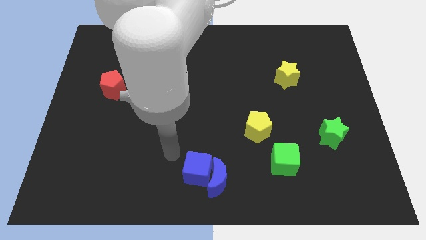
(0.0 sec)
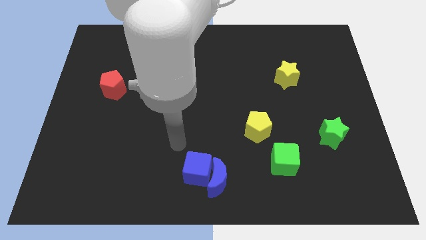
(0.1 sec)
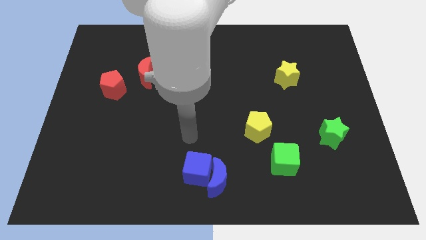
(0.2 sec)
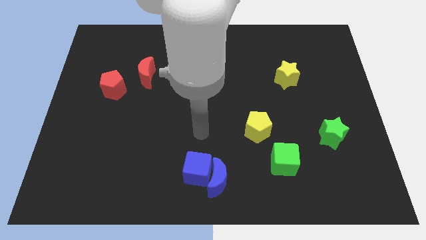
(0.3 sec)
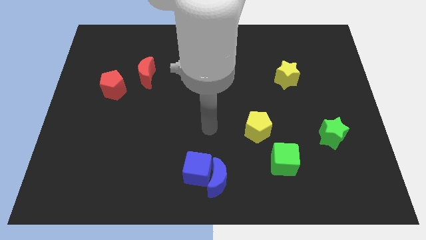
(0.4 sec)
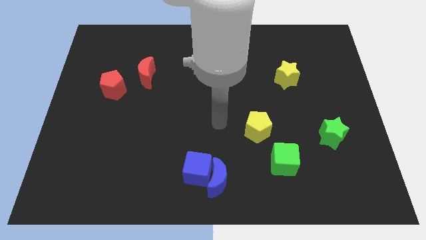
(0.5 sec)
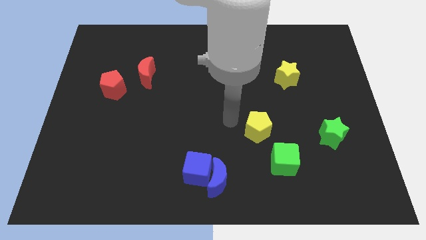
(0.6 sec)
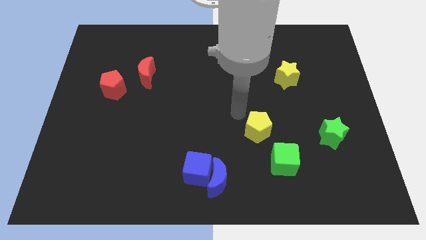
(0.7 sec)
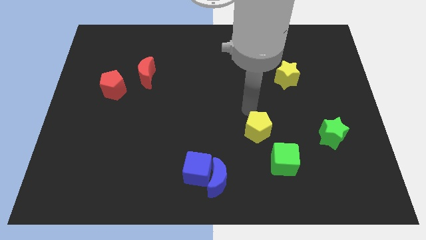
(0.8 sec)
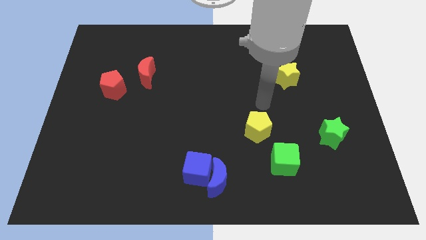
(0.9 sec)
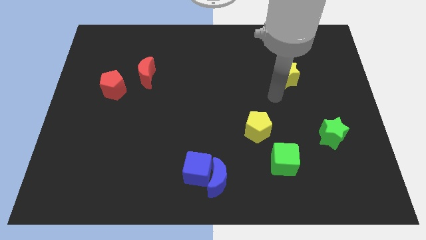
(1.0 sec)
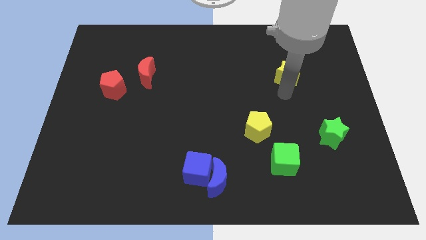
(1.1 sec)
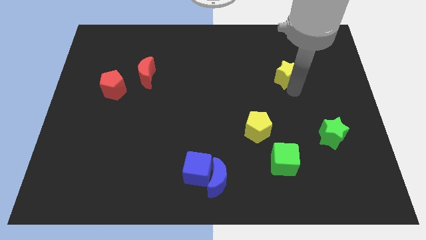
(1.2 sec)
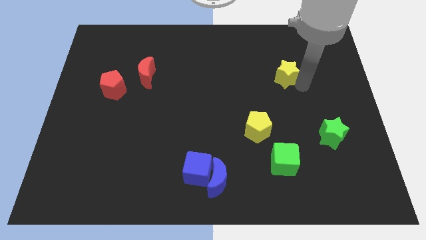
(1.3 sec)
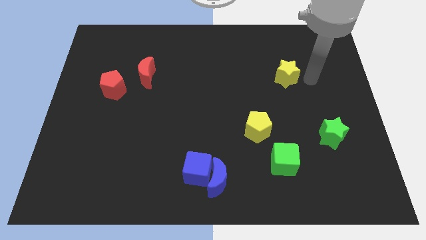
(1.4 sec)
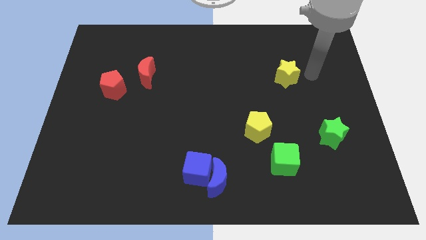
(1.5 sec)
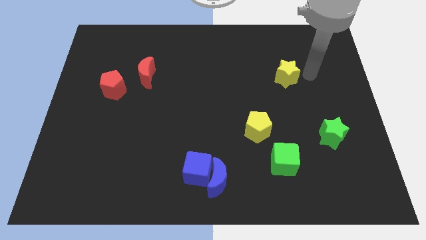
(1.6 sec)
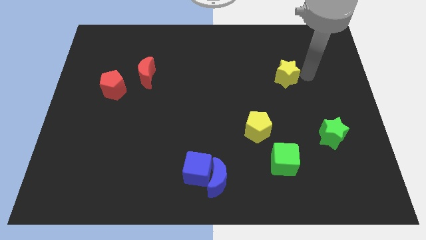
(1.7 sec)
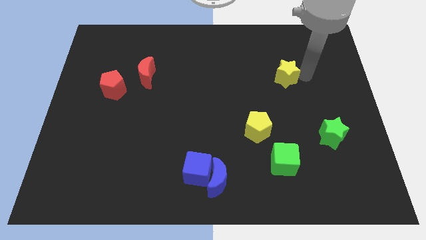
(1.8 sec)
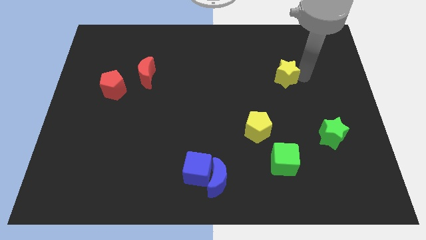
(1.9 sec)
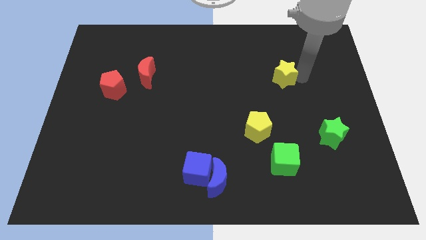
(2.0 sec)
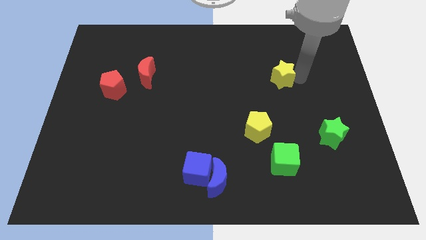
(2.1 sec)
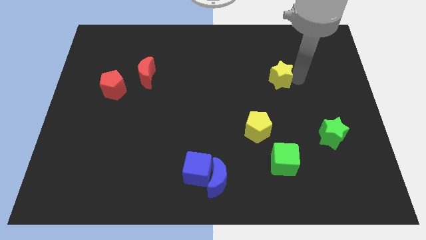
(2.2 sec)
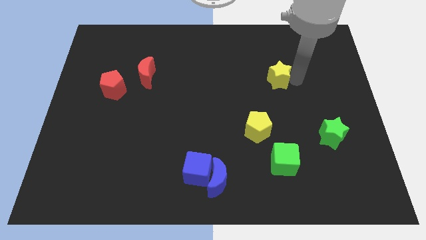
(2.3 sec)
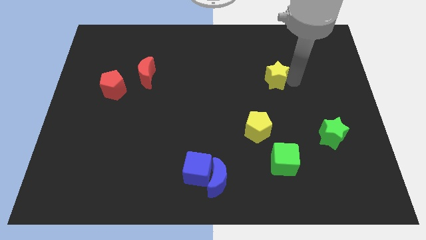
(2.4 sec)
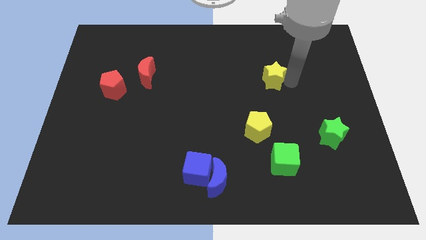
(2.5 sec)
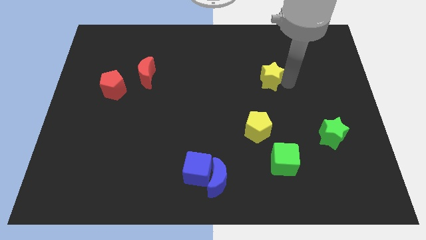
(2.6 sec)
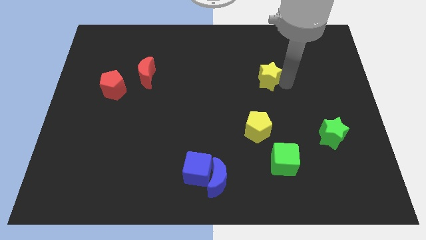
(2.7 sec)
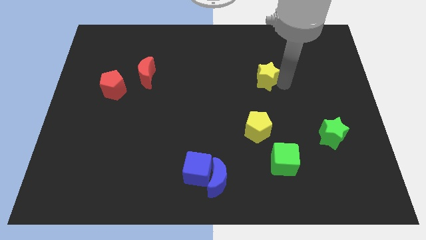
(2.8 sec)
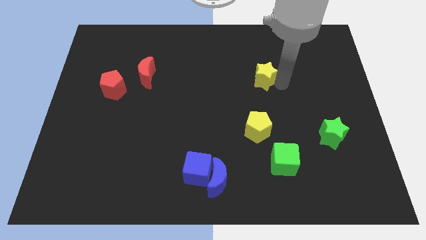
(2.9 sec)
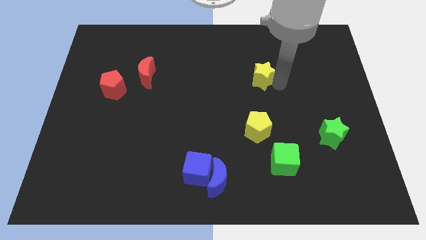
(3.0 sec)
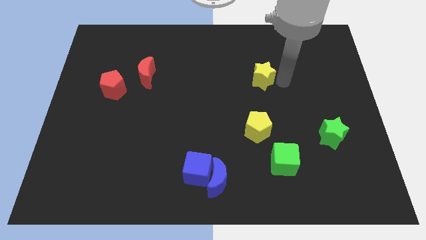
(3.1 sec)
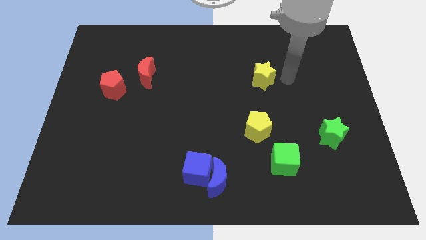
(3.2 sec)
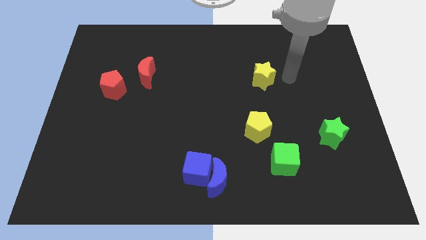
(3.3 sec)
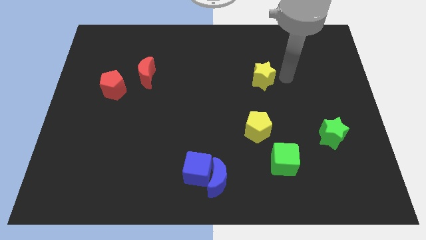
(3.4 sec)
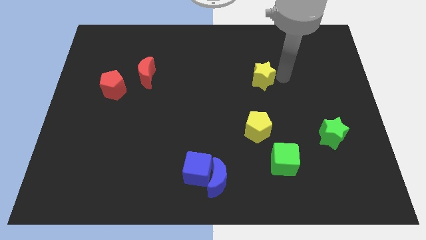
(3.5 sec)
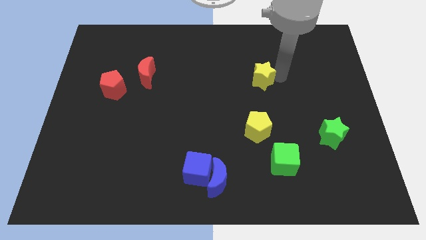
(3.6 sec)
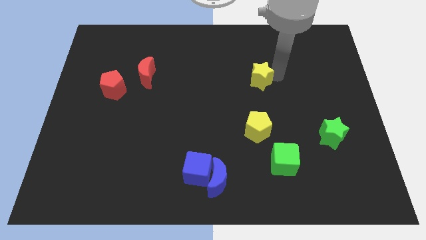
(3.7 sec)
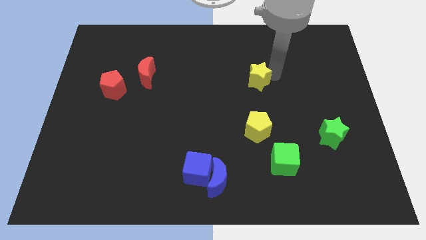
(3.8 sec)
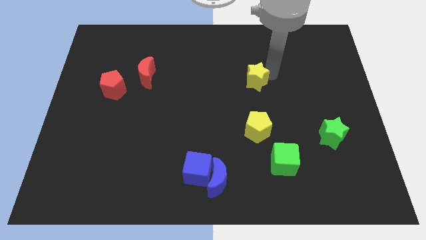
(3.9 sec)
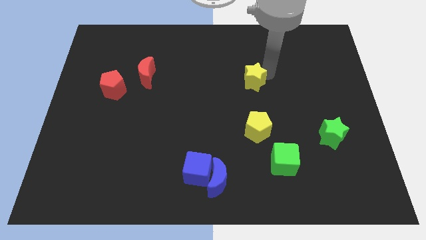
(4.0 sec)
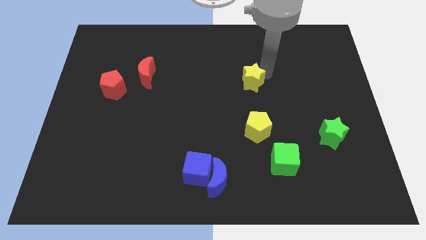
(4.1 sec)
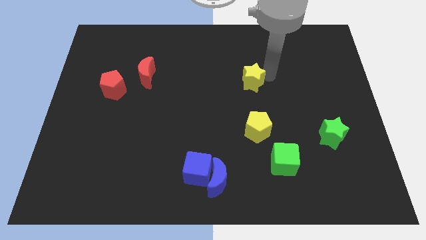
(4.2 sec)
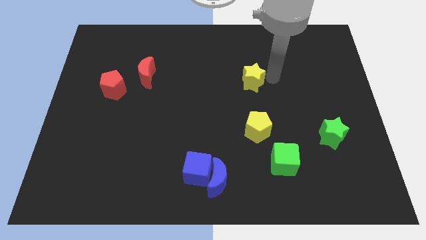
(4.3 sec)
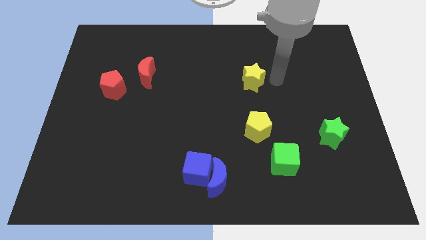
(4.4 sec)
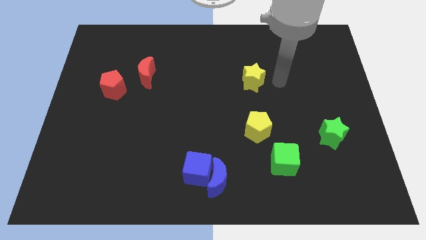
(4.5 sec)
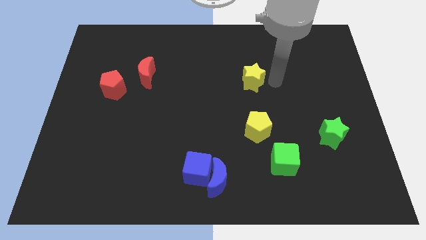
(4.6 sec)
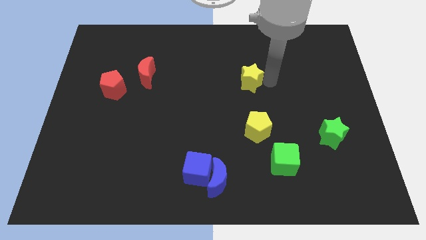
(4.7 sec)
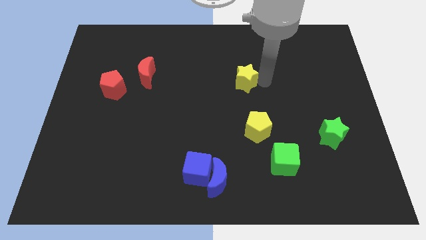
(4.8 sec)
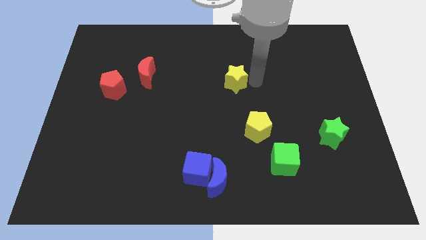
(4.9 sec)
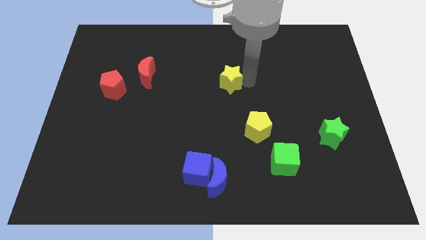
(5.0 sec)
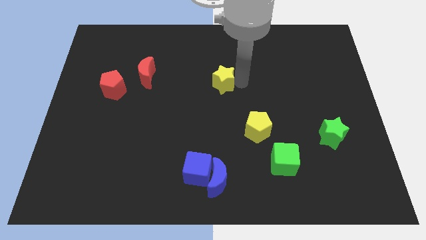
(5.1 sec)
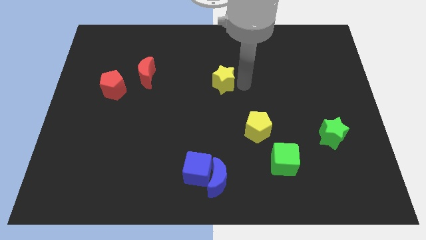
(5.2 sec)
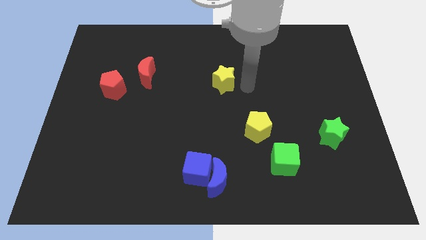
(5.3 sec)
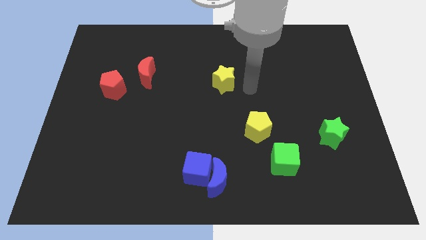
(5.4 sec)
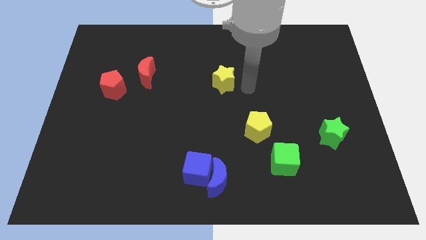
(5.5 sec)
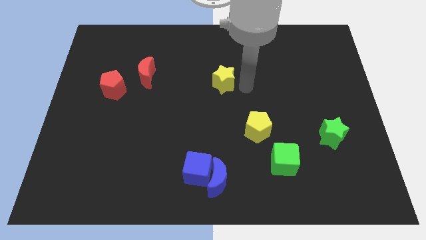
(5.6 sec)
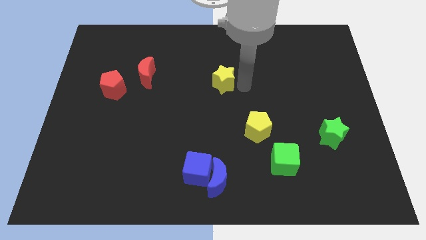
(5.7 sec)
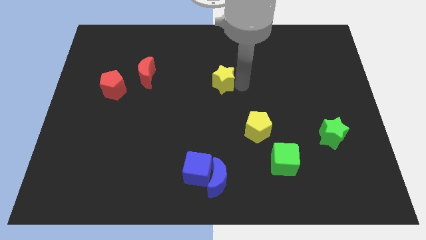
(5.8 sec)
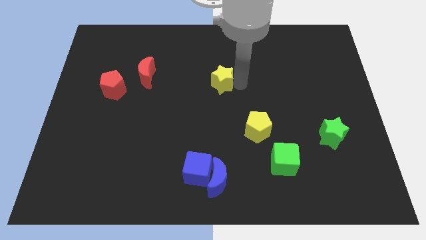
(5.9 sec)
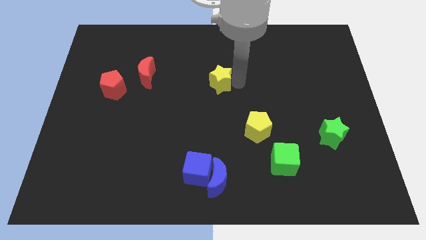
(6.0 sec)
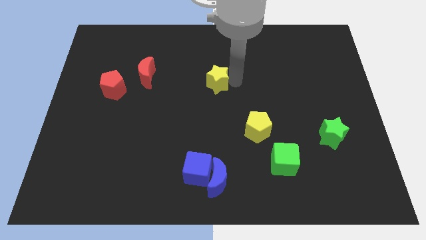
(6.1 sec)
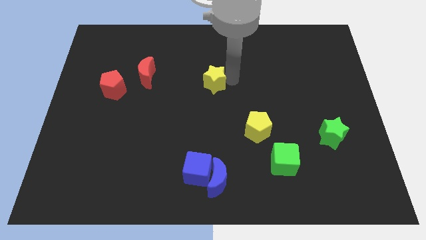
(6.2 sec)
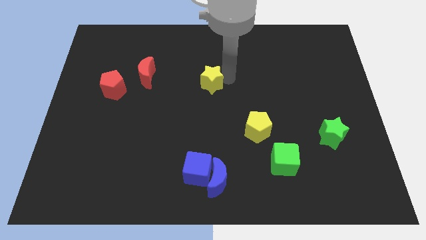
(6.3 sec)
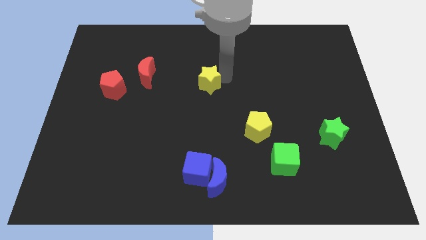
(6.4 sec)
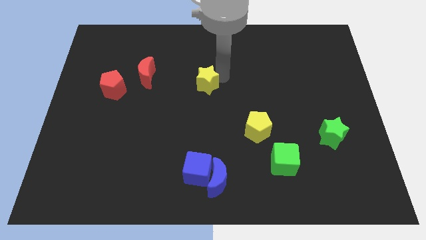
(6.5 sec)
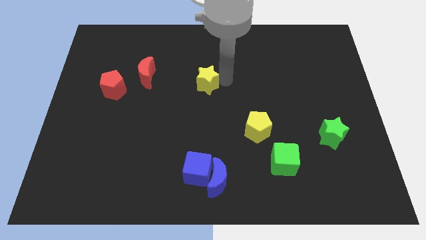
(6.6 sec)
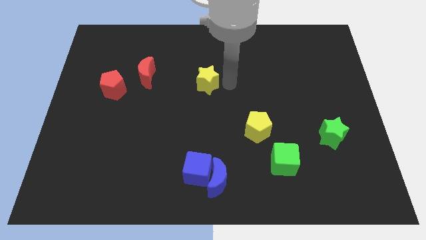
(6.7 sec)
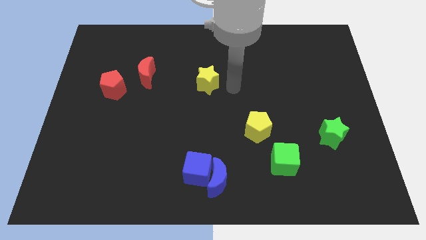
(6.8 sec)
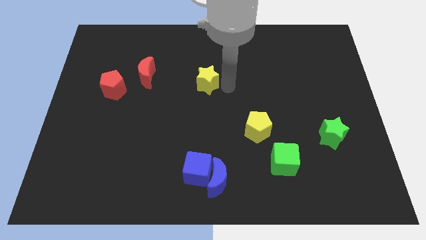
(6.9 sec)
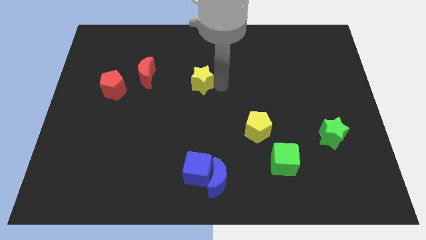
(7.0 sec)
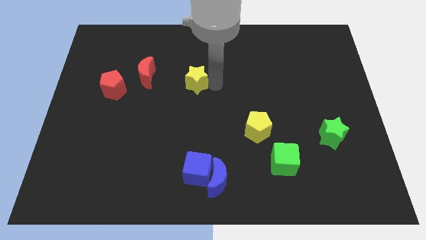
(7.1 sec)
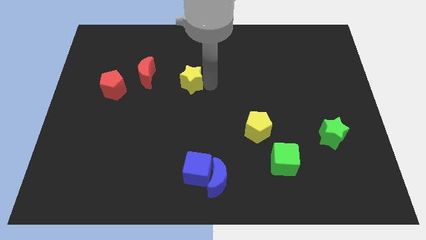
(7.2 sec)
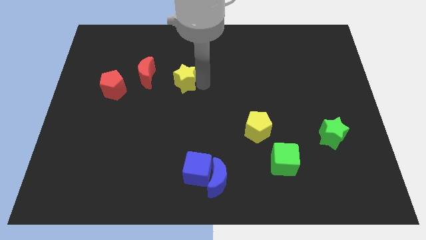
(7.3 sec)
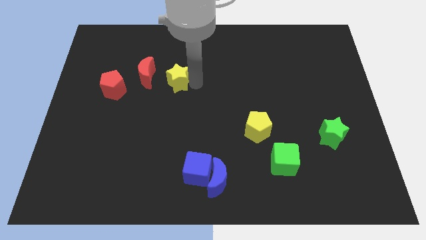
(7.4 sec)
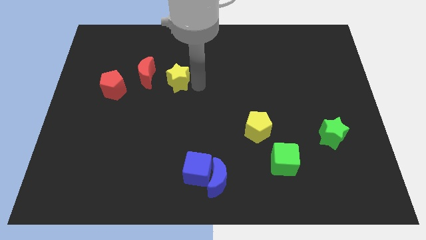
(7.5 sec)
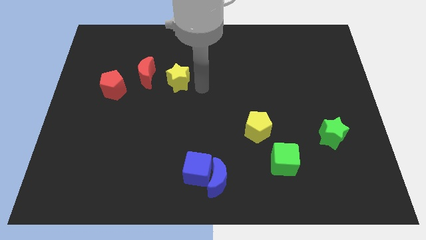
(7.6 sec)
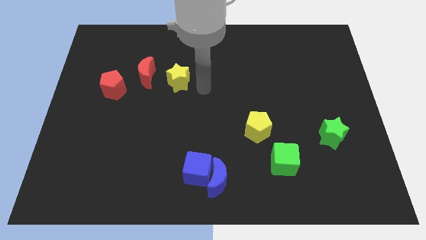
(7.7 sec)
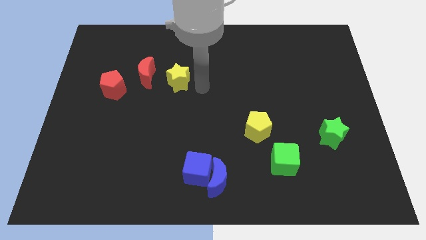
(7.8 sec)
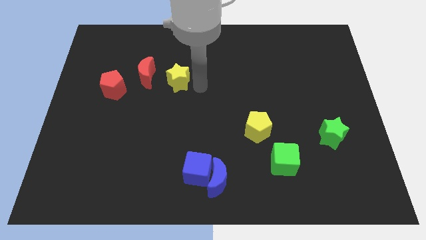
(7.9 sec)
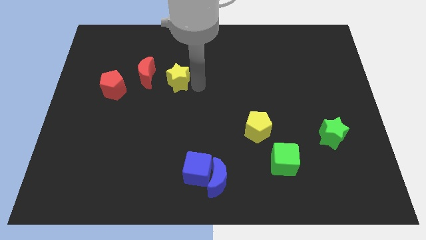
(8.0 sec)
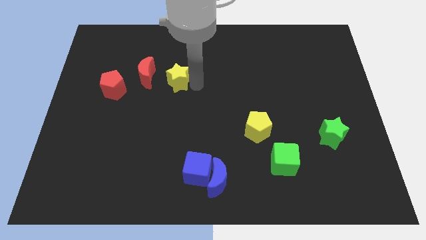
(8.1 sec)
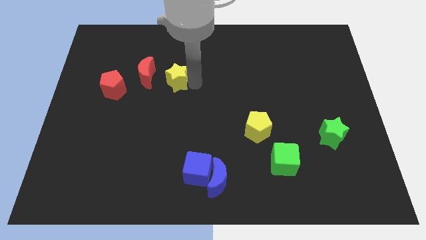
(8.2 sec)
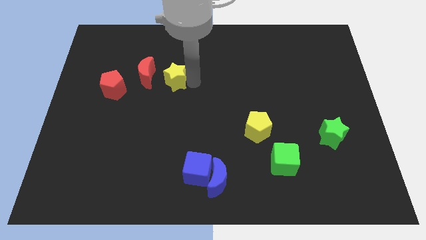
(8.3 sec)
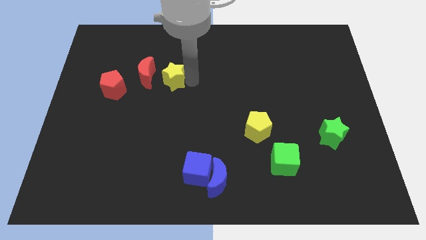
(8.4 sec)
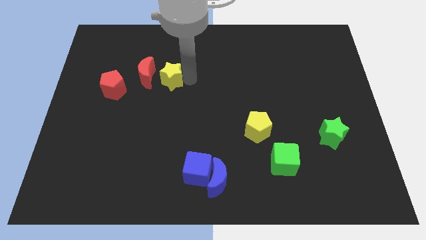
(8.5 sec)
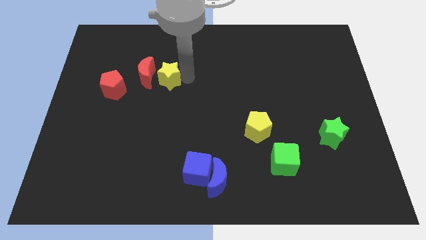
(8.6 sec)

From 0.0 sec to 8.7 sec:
put the yellow star next to the red moon
